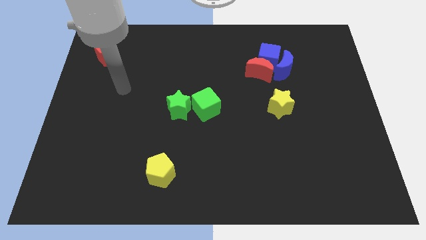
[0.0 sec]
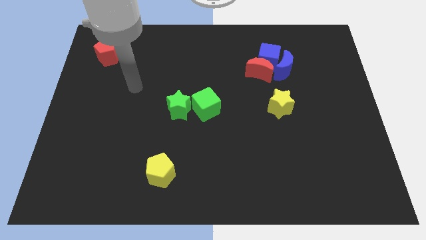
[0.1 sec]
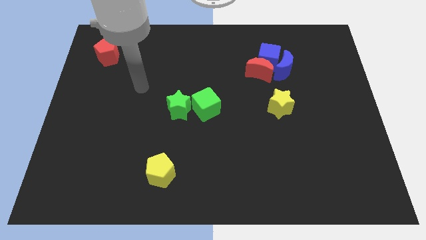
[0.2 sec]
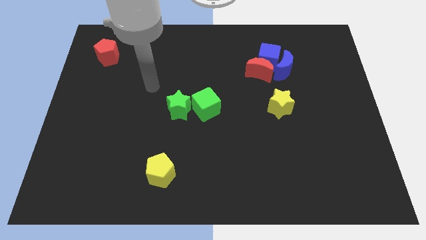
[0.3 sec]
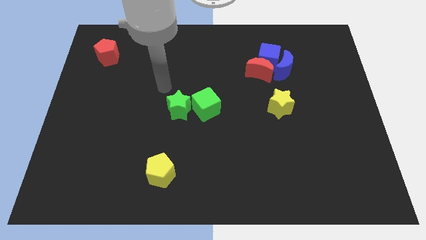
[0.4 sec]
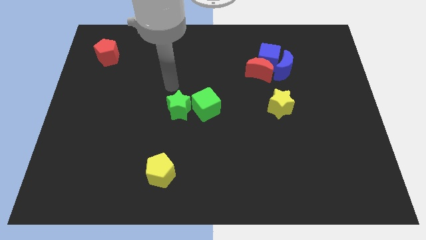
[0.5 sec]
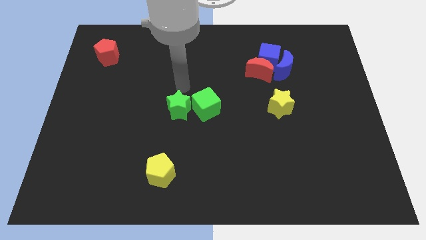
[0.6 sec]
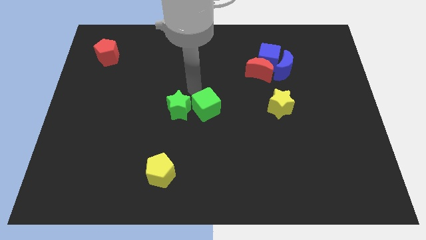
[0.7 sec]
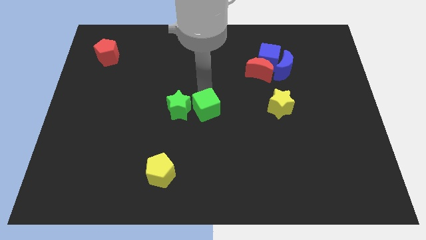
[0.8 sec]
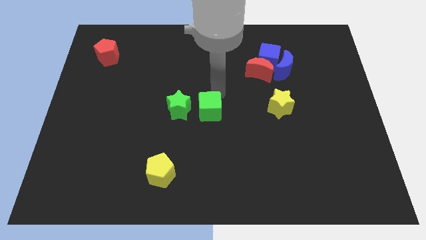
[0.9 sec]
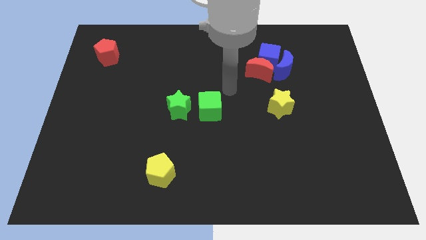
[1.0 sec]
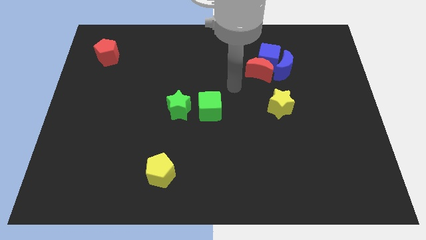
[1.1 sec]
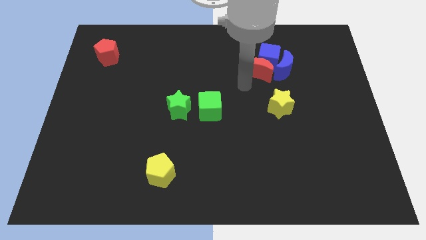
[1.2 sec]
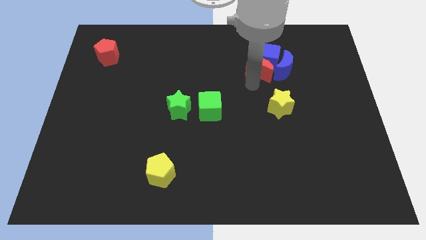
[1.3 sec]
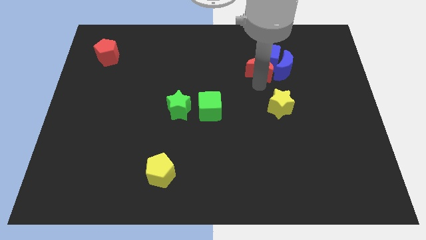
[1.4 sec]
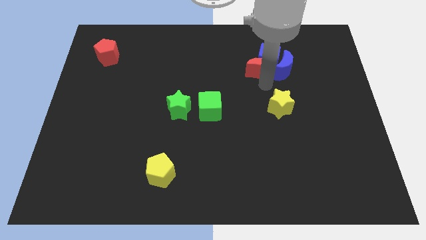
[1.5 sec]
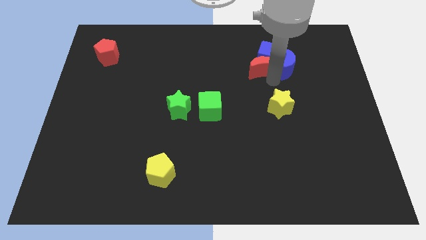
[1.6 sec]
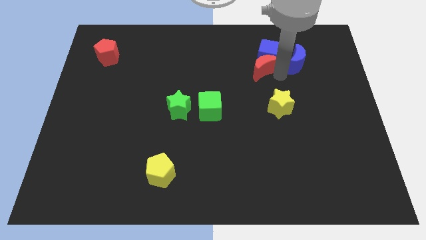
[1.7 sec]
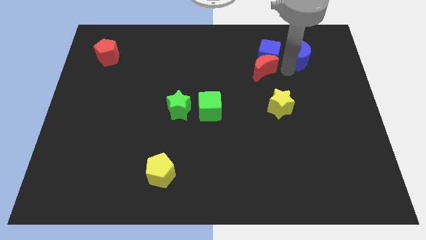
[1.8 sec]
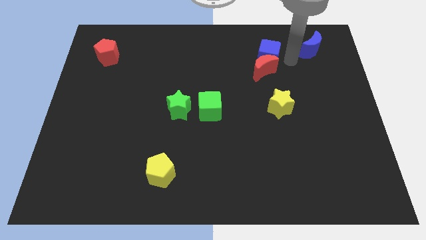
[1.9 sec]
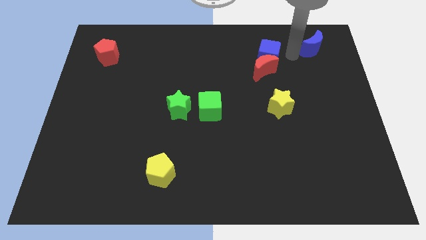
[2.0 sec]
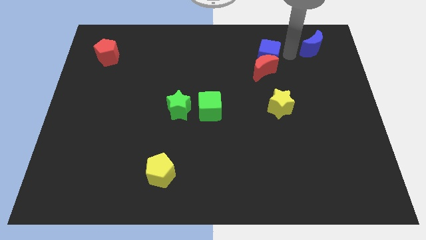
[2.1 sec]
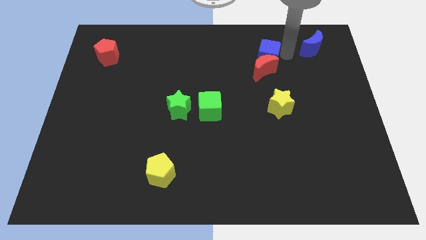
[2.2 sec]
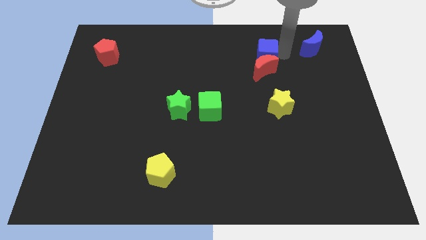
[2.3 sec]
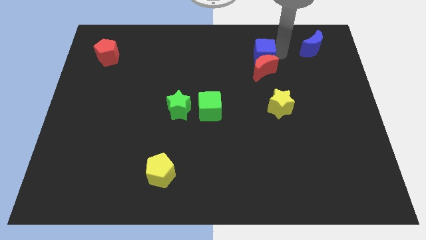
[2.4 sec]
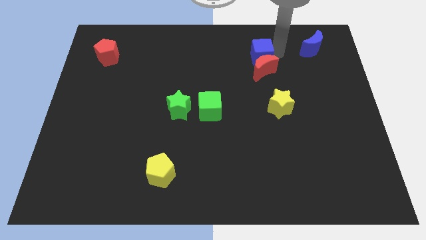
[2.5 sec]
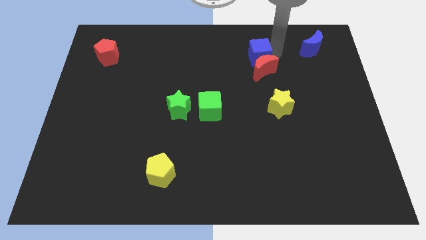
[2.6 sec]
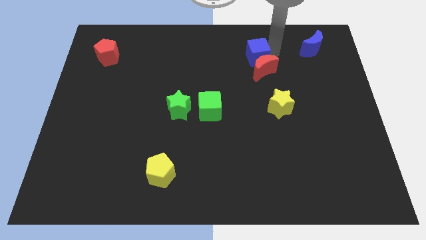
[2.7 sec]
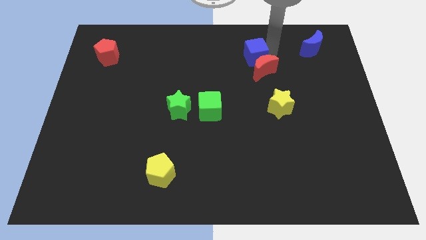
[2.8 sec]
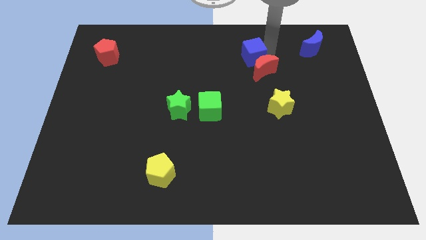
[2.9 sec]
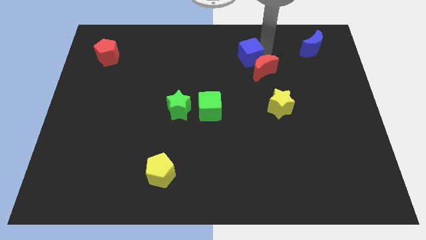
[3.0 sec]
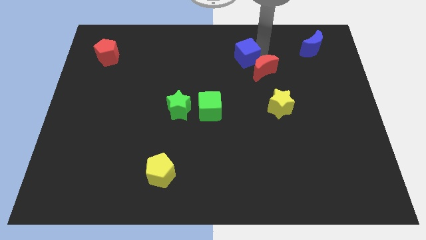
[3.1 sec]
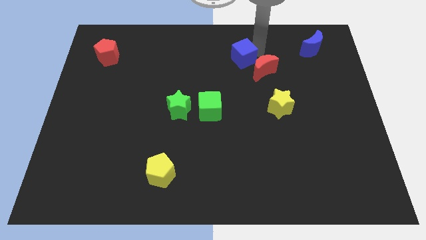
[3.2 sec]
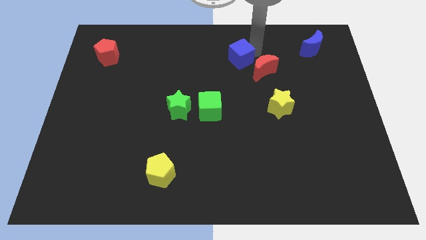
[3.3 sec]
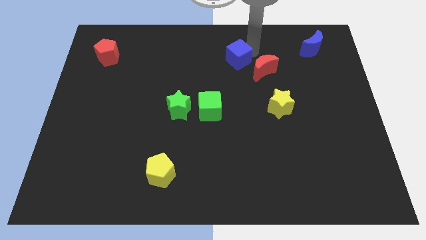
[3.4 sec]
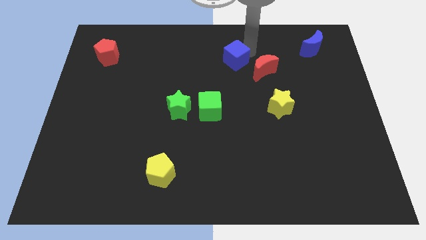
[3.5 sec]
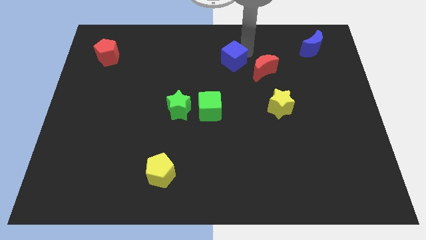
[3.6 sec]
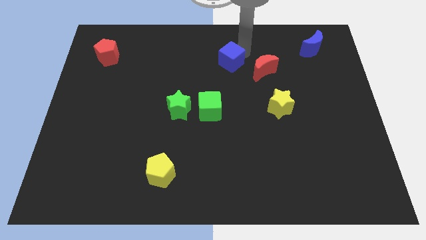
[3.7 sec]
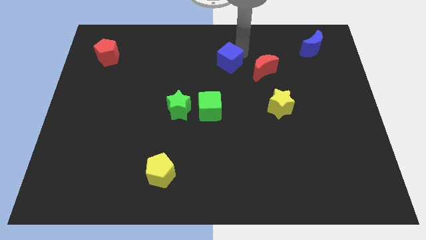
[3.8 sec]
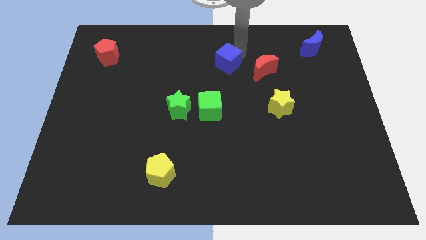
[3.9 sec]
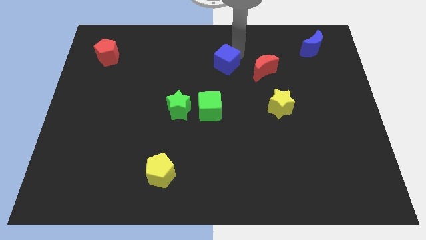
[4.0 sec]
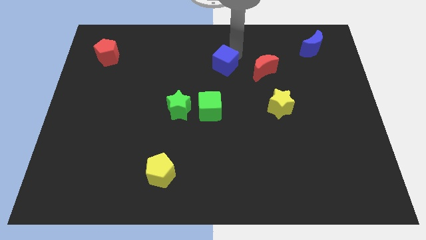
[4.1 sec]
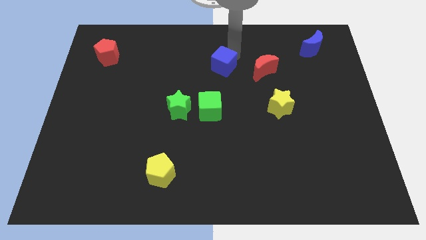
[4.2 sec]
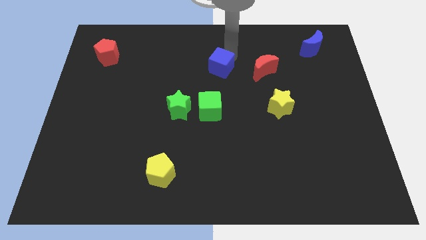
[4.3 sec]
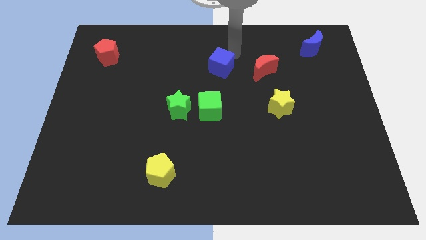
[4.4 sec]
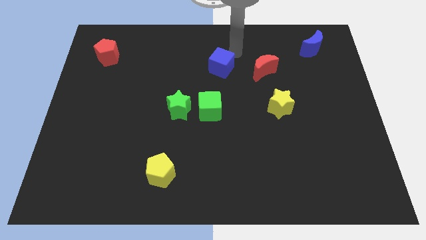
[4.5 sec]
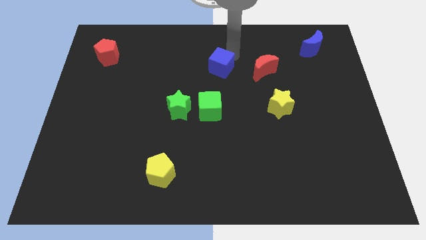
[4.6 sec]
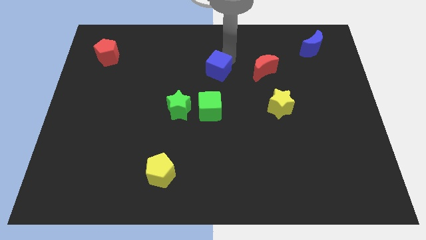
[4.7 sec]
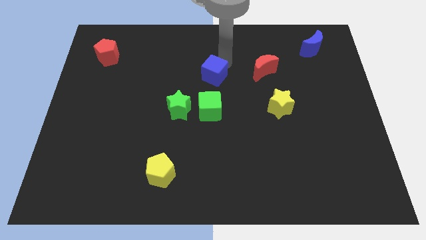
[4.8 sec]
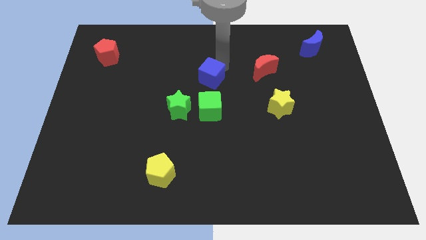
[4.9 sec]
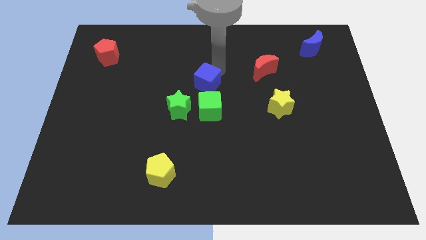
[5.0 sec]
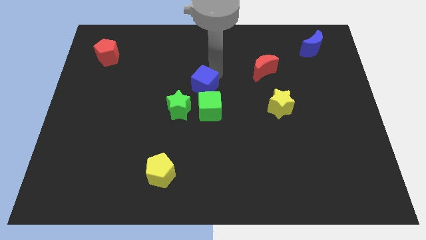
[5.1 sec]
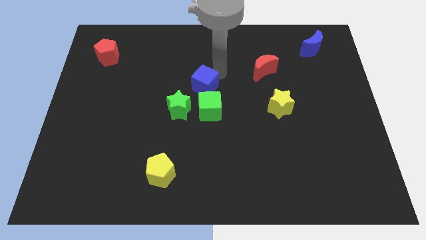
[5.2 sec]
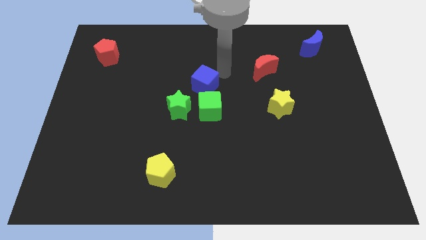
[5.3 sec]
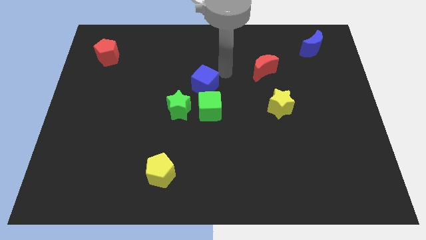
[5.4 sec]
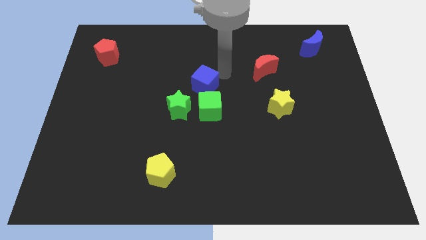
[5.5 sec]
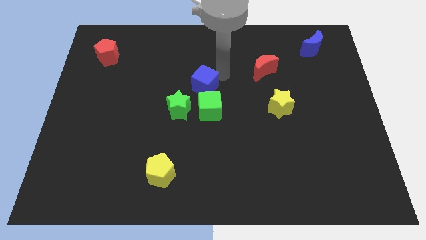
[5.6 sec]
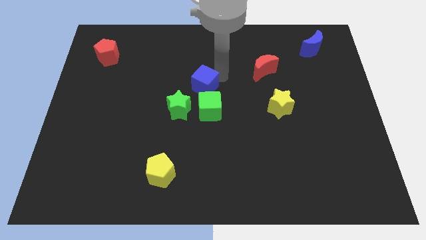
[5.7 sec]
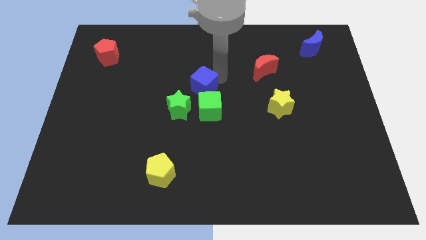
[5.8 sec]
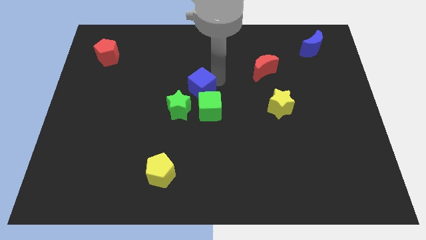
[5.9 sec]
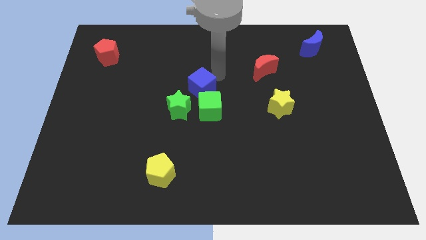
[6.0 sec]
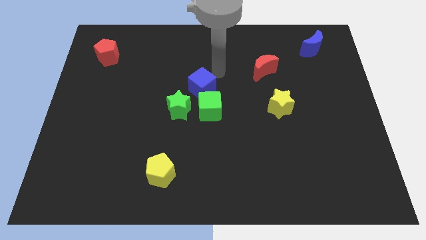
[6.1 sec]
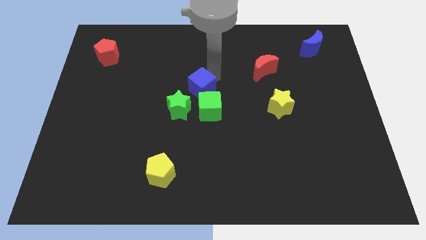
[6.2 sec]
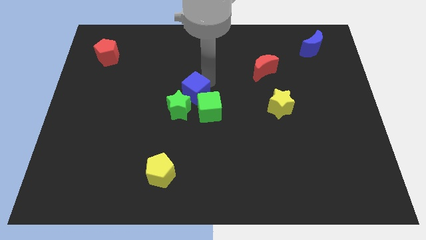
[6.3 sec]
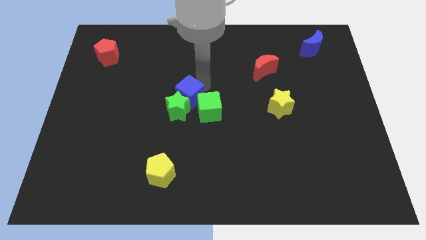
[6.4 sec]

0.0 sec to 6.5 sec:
put the blue cube close to the green star
